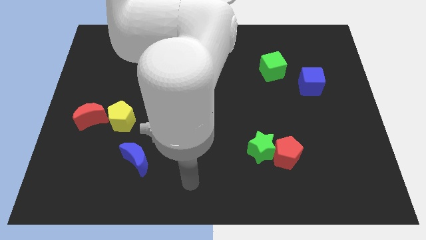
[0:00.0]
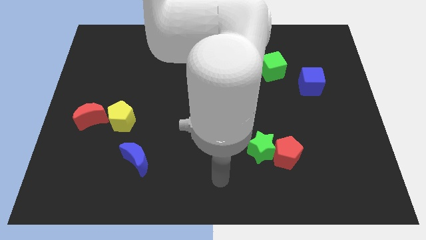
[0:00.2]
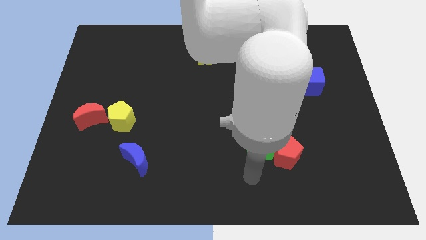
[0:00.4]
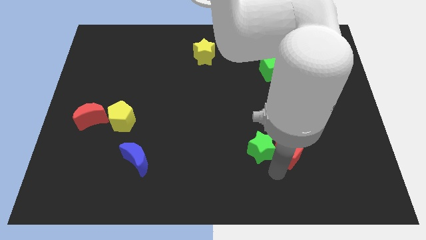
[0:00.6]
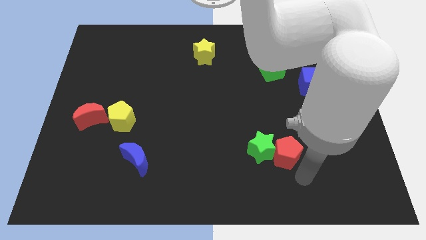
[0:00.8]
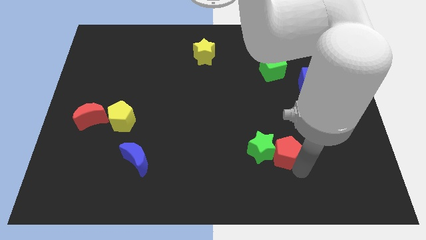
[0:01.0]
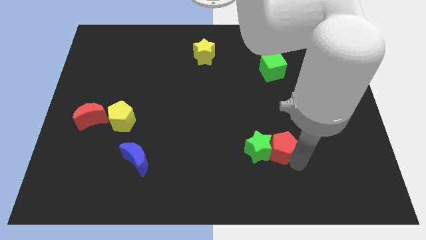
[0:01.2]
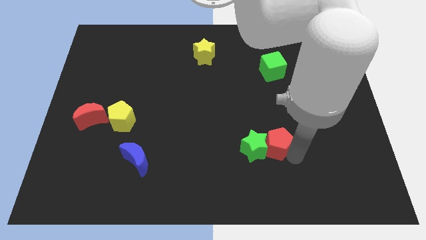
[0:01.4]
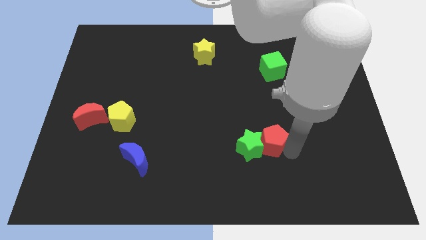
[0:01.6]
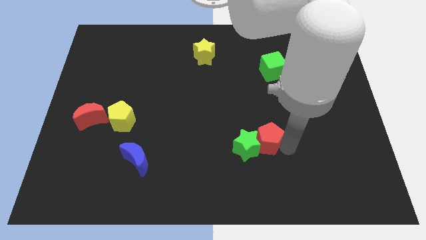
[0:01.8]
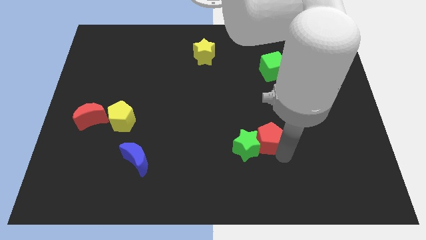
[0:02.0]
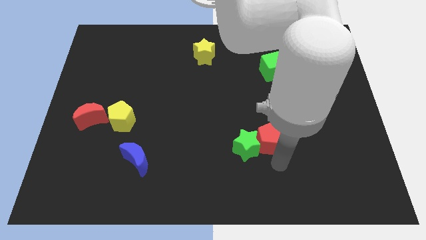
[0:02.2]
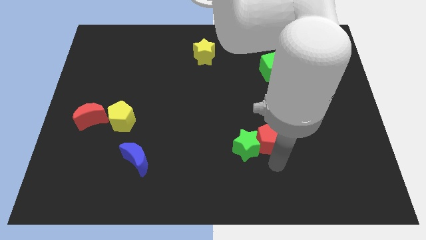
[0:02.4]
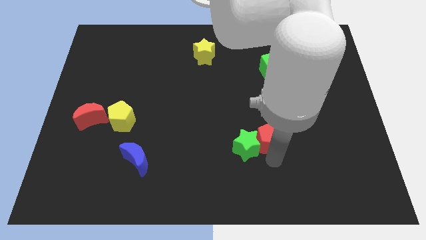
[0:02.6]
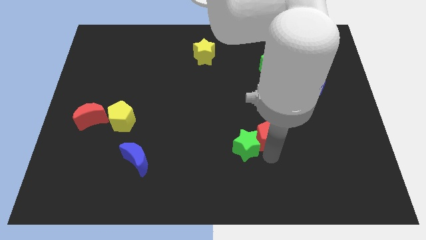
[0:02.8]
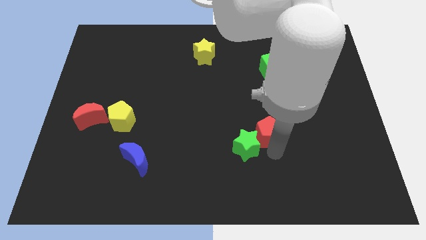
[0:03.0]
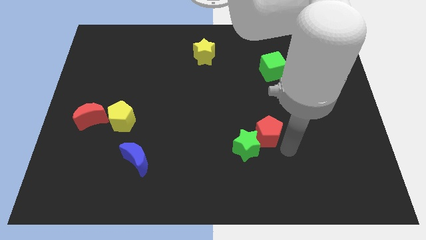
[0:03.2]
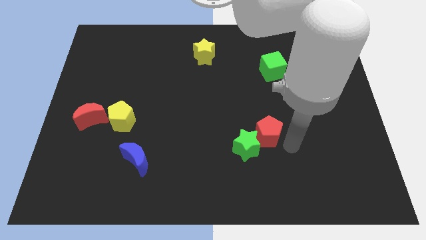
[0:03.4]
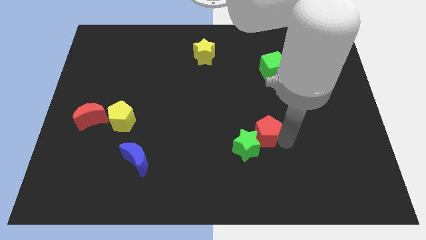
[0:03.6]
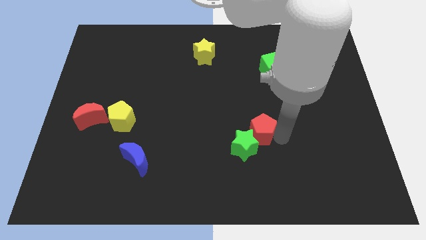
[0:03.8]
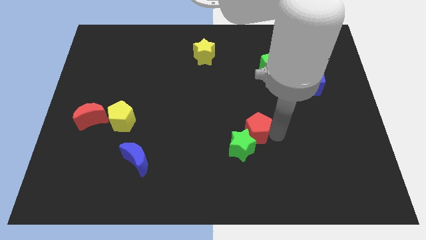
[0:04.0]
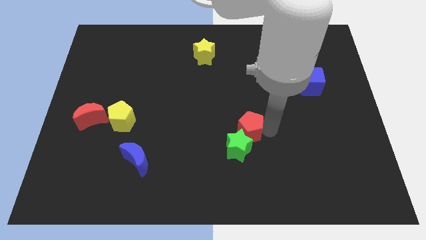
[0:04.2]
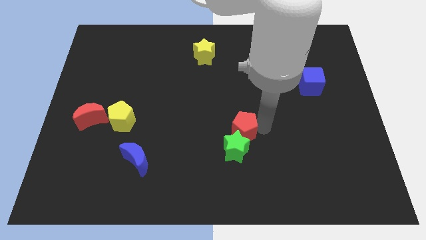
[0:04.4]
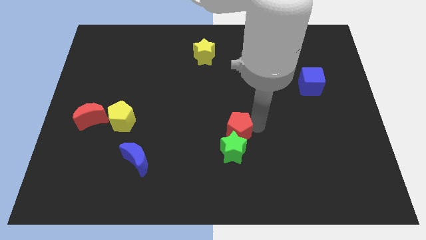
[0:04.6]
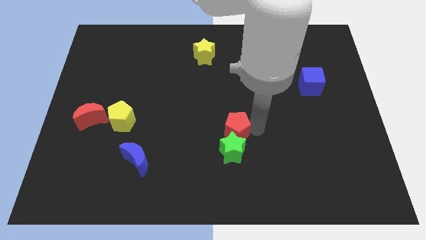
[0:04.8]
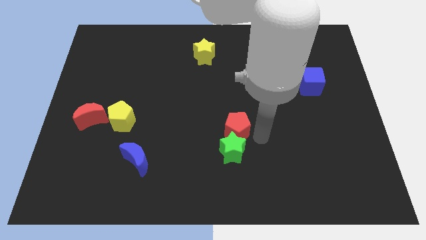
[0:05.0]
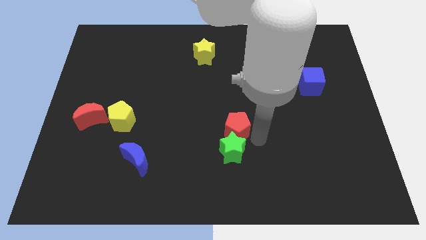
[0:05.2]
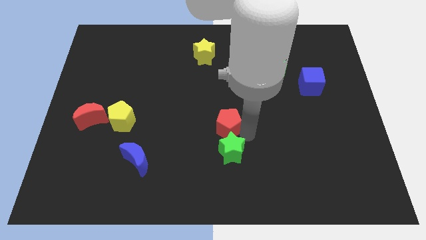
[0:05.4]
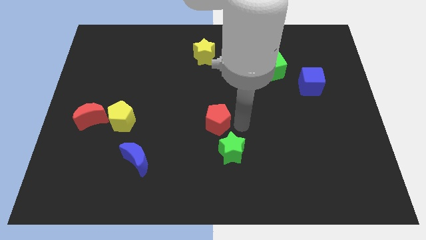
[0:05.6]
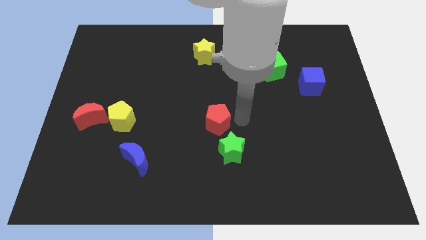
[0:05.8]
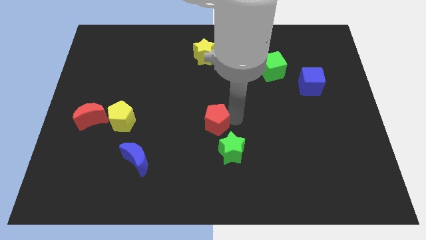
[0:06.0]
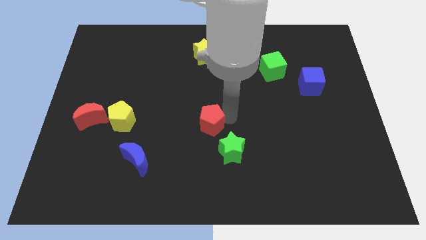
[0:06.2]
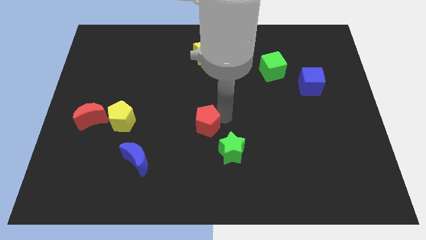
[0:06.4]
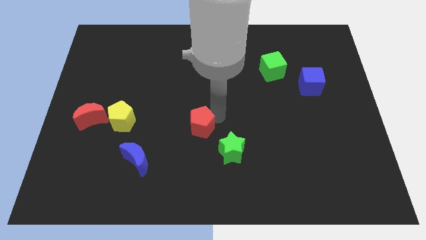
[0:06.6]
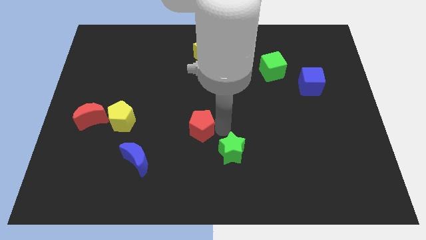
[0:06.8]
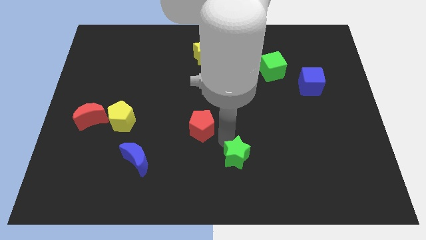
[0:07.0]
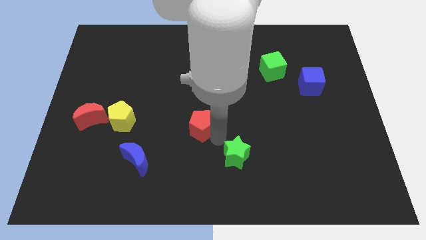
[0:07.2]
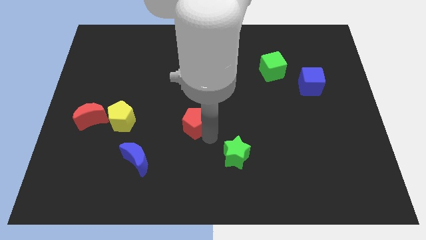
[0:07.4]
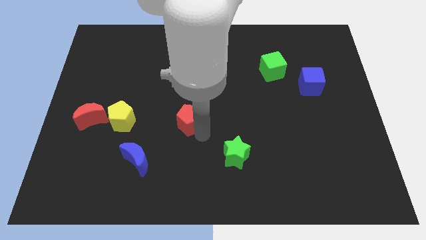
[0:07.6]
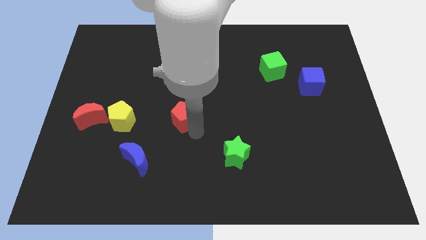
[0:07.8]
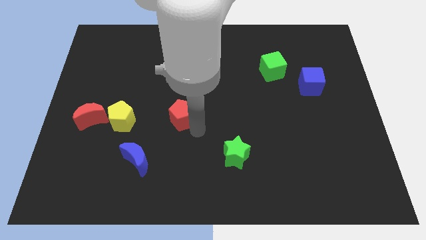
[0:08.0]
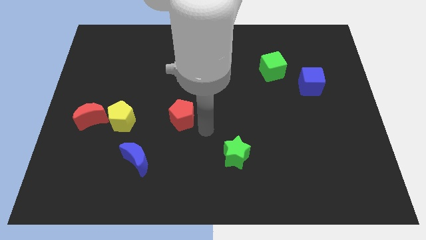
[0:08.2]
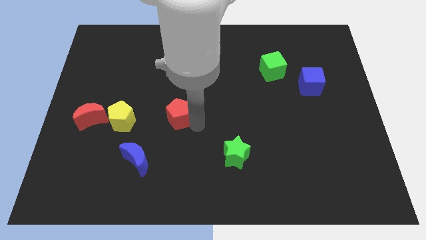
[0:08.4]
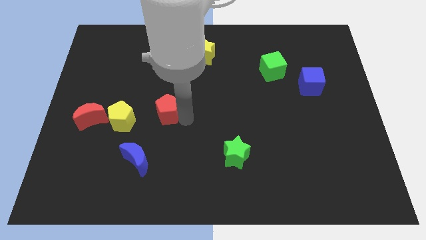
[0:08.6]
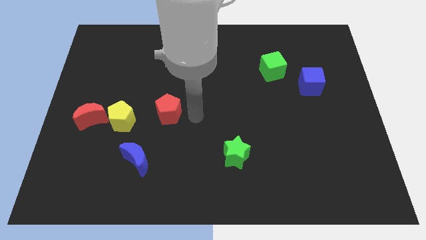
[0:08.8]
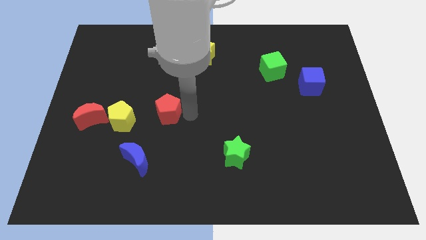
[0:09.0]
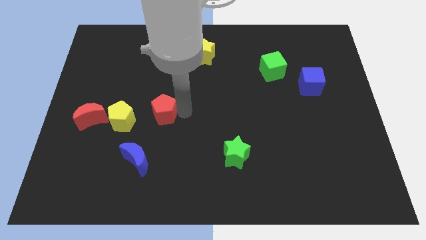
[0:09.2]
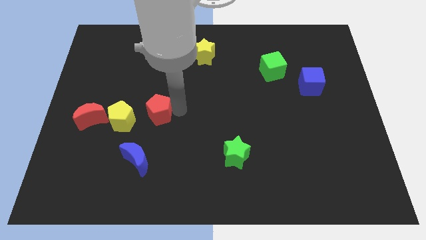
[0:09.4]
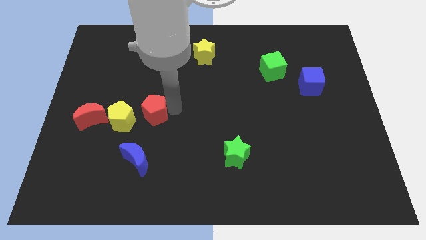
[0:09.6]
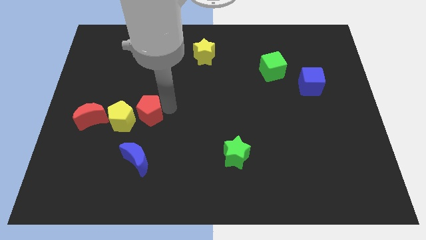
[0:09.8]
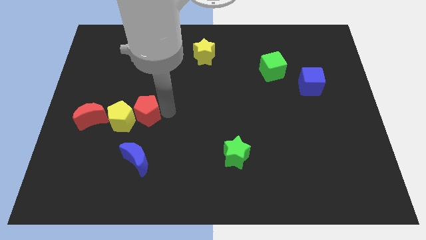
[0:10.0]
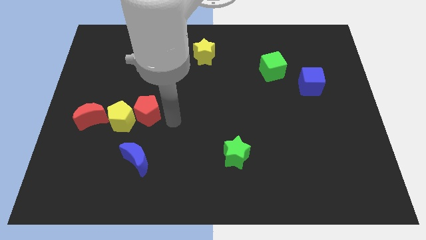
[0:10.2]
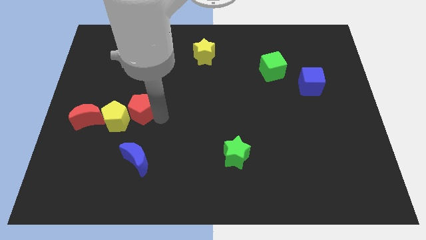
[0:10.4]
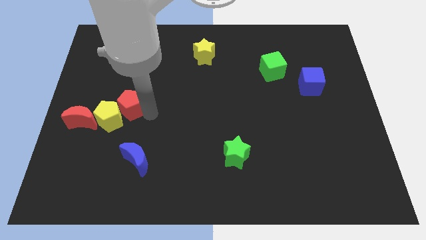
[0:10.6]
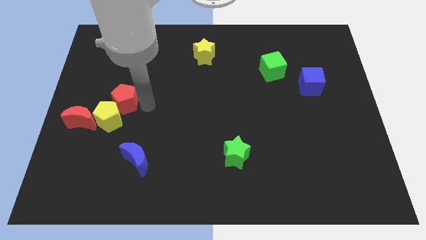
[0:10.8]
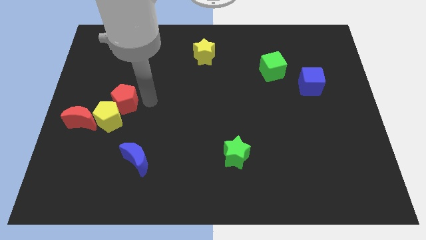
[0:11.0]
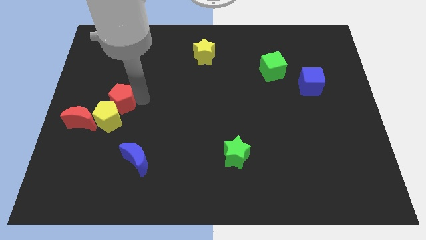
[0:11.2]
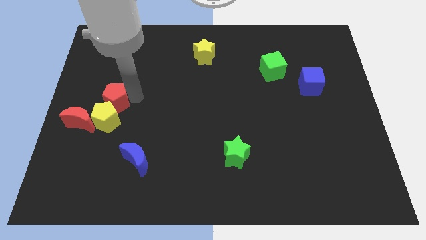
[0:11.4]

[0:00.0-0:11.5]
move the red pentagon to the top left side of the yellow pentagon

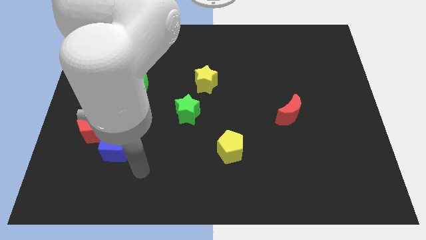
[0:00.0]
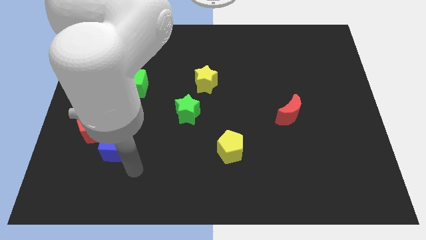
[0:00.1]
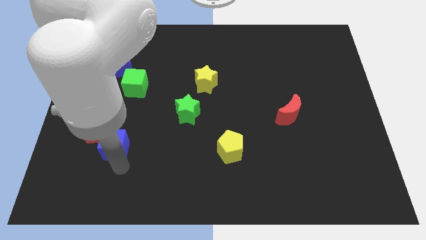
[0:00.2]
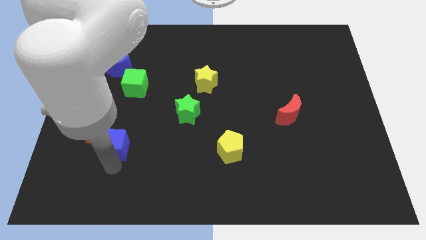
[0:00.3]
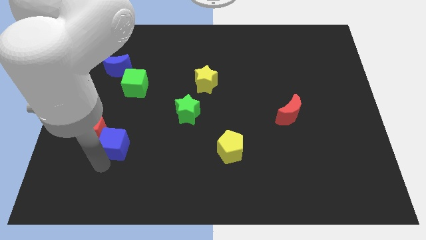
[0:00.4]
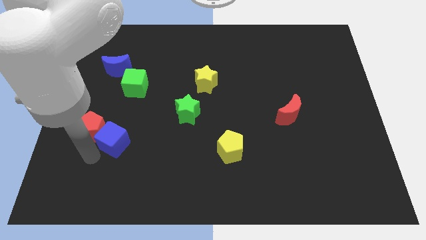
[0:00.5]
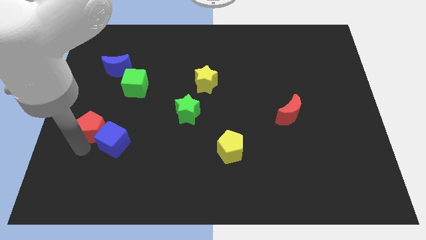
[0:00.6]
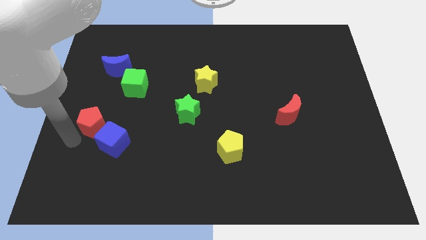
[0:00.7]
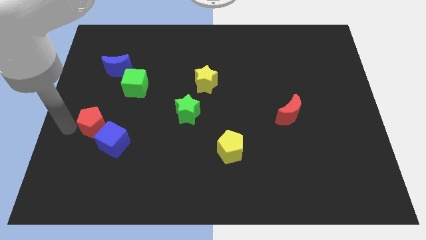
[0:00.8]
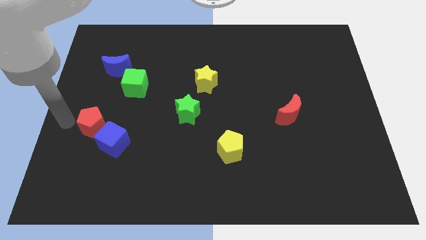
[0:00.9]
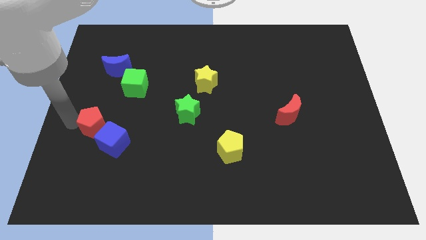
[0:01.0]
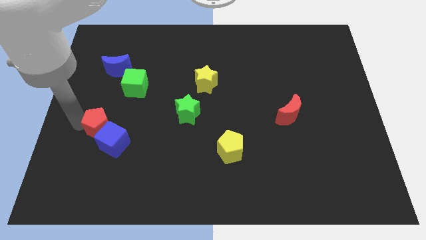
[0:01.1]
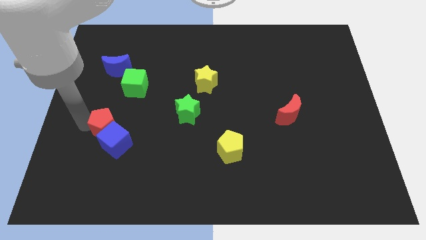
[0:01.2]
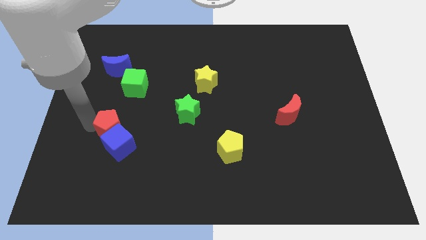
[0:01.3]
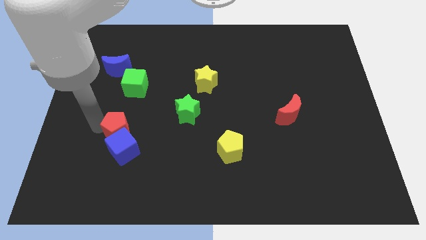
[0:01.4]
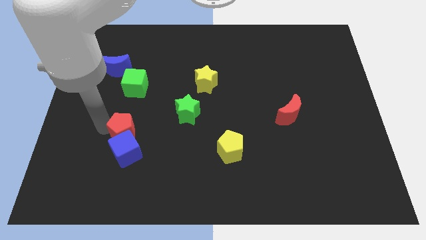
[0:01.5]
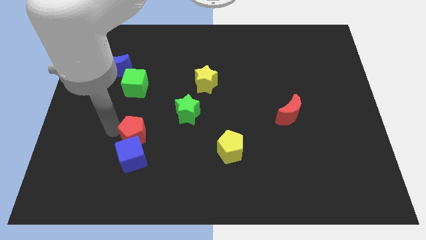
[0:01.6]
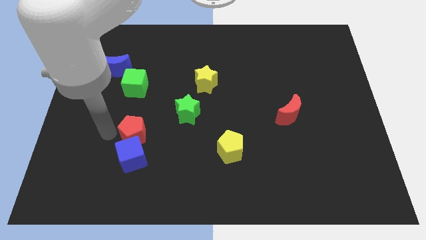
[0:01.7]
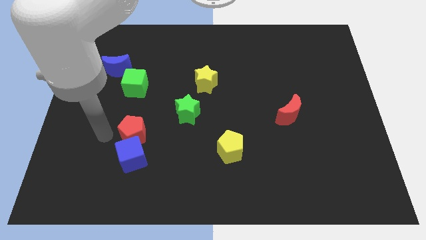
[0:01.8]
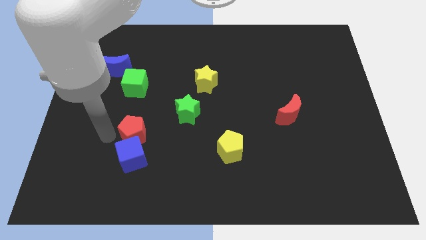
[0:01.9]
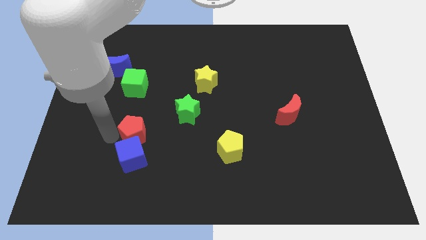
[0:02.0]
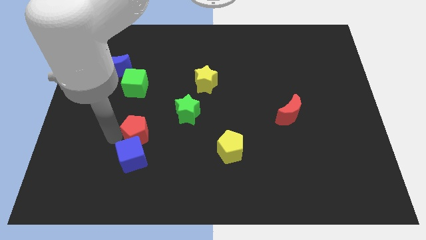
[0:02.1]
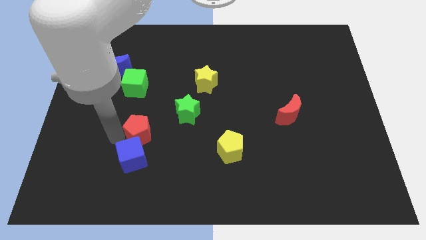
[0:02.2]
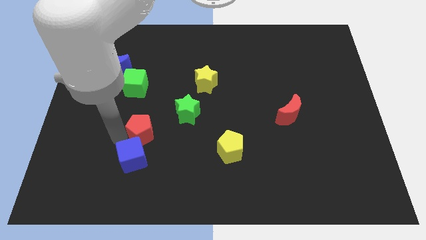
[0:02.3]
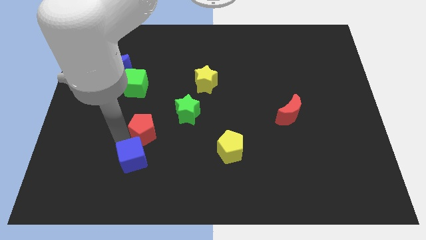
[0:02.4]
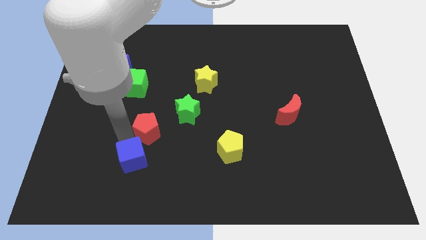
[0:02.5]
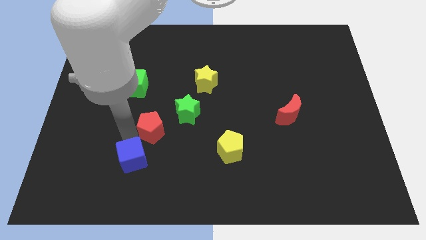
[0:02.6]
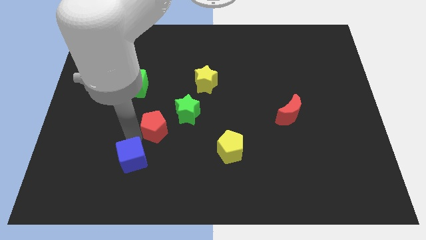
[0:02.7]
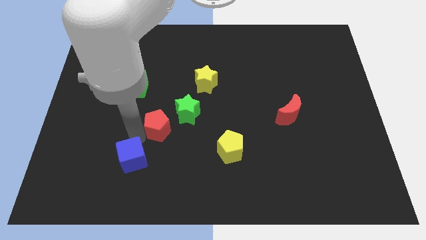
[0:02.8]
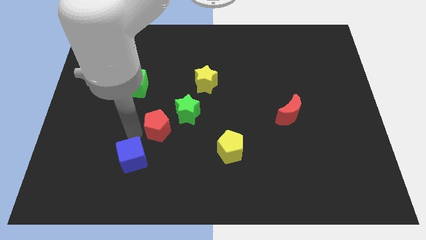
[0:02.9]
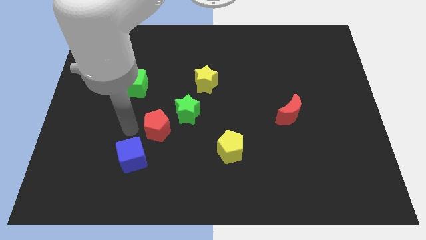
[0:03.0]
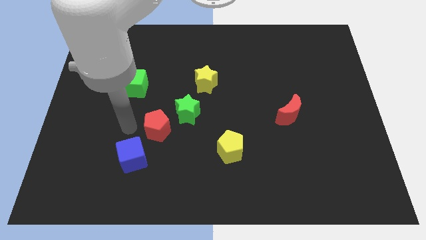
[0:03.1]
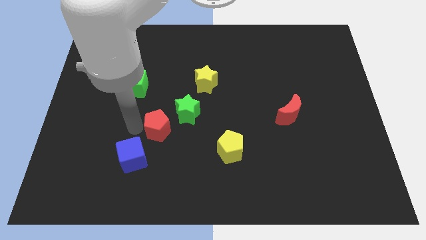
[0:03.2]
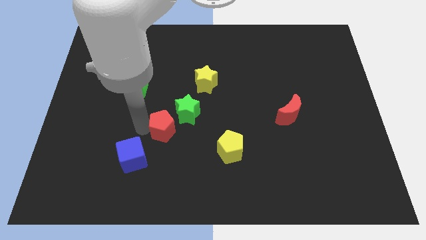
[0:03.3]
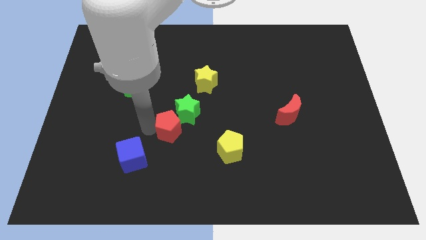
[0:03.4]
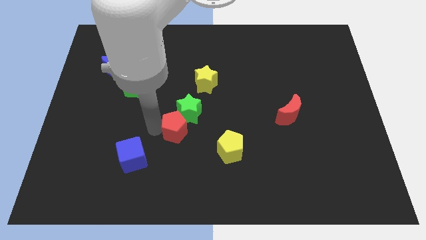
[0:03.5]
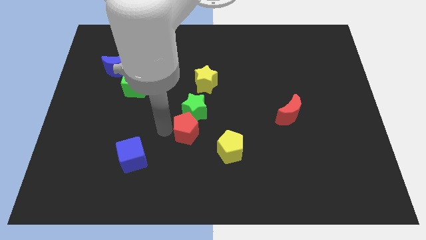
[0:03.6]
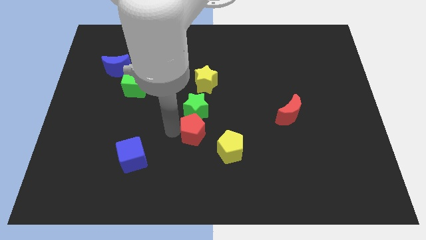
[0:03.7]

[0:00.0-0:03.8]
push the red pentagon to the bottom right of the green star
